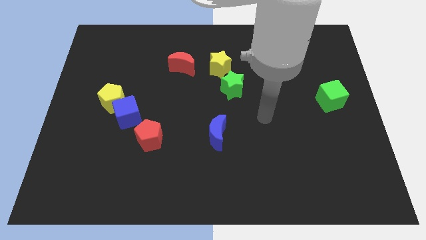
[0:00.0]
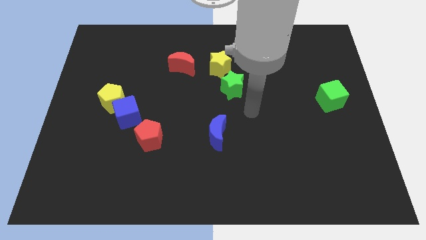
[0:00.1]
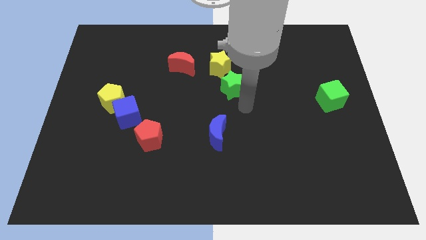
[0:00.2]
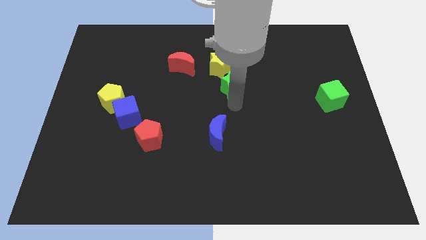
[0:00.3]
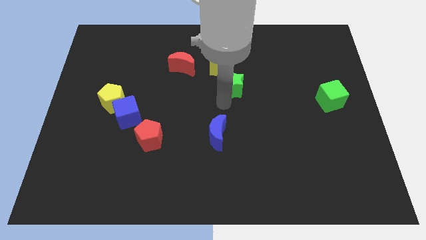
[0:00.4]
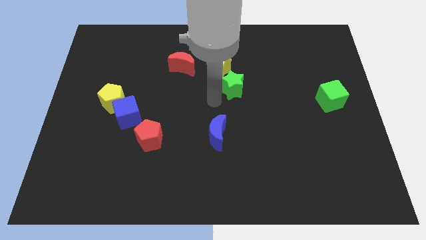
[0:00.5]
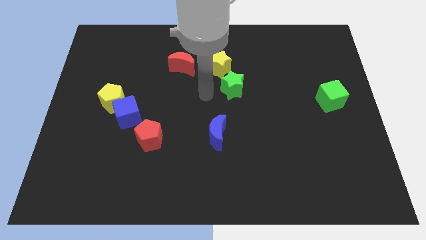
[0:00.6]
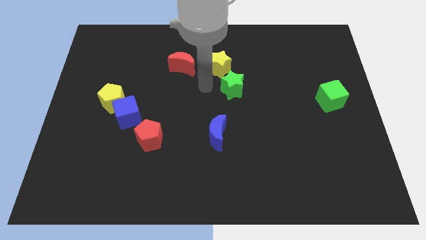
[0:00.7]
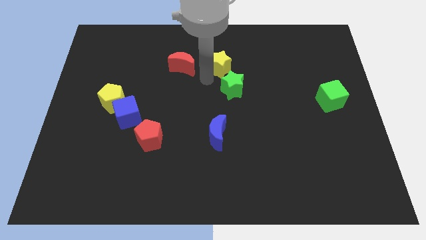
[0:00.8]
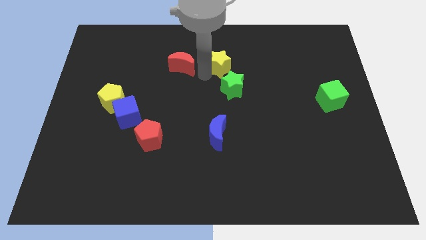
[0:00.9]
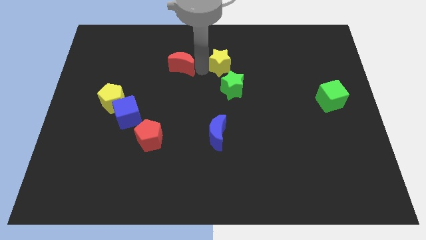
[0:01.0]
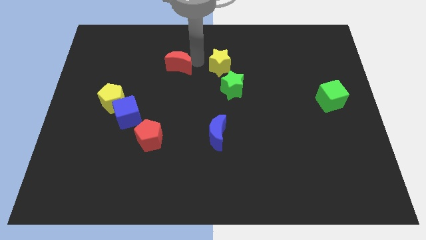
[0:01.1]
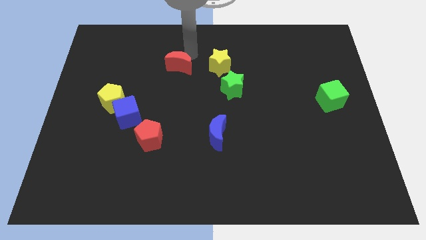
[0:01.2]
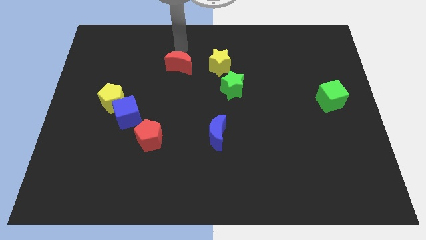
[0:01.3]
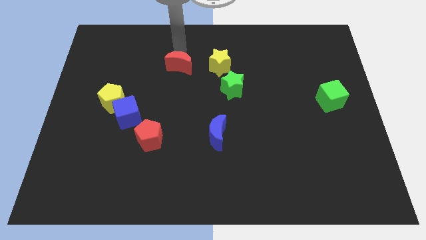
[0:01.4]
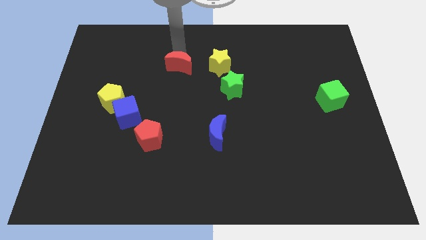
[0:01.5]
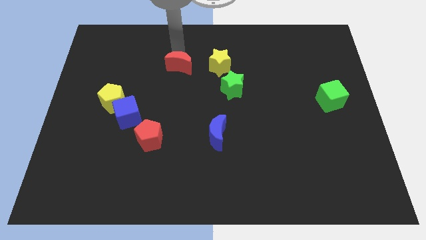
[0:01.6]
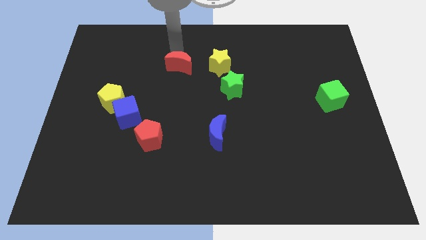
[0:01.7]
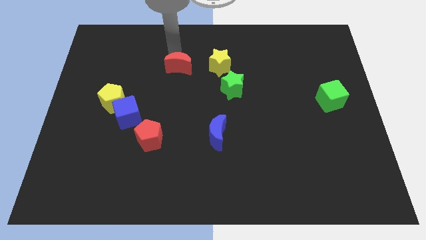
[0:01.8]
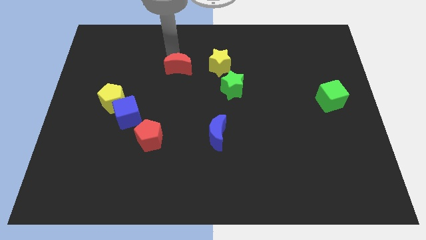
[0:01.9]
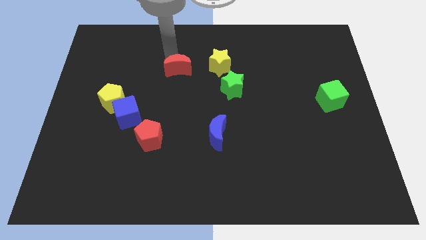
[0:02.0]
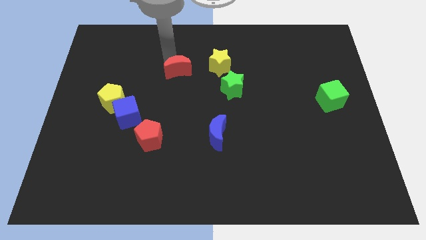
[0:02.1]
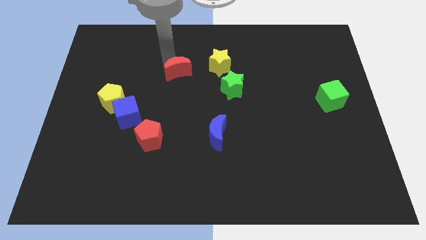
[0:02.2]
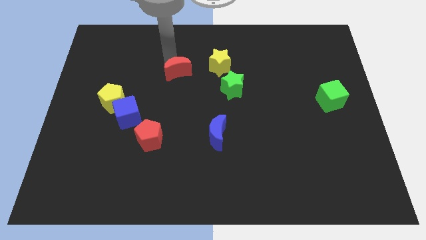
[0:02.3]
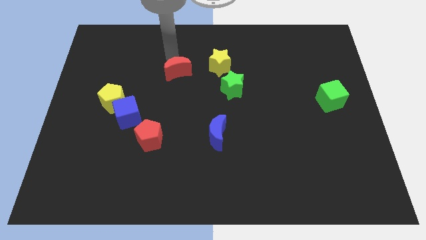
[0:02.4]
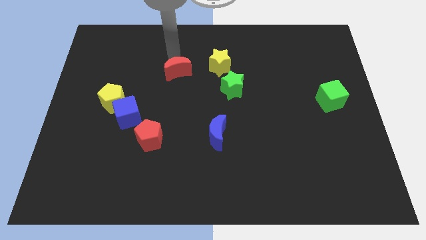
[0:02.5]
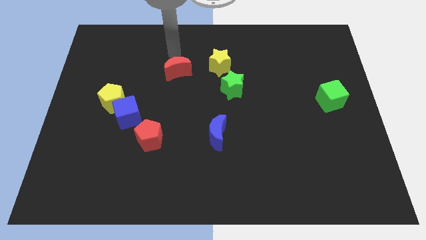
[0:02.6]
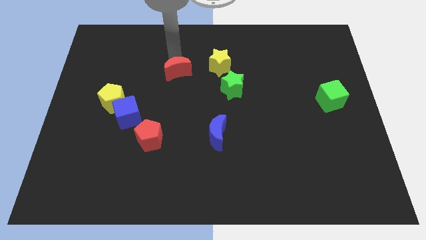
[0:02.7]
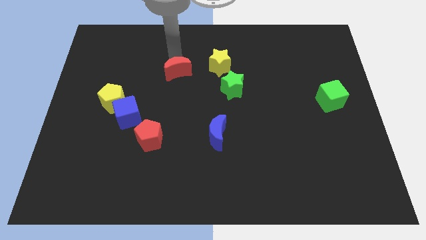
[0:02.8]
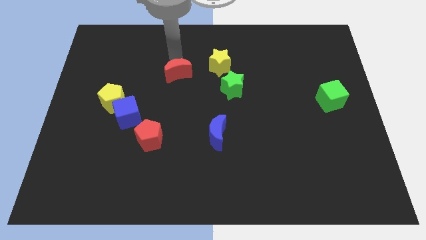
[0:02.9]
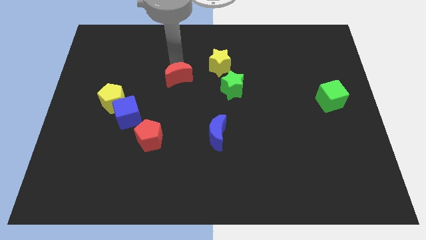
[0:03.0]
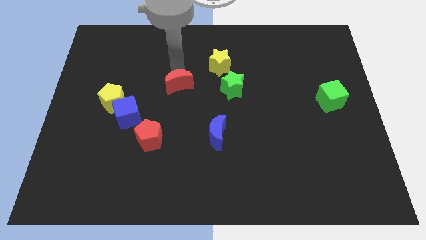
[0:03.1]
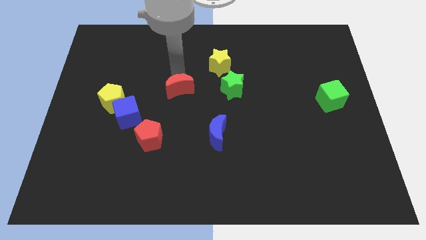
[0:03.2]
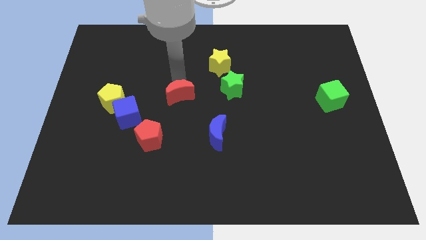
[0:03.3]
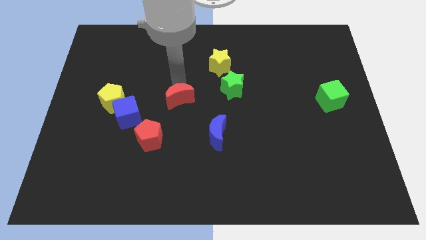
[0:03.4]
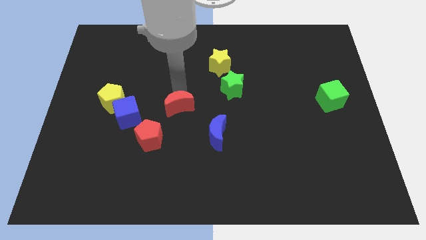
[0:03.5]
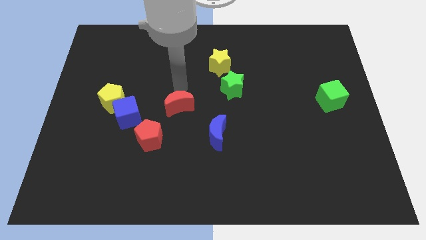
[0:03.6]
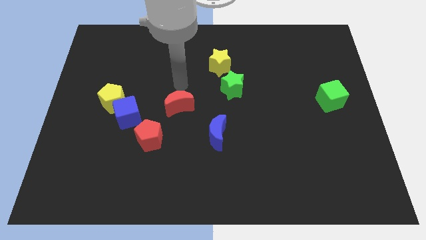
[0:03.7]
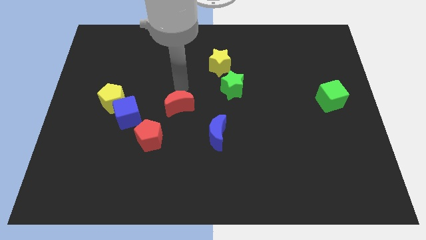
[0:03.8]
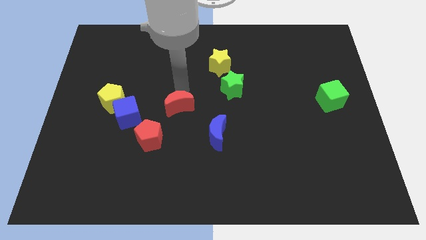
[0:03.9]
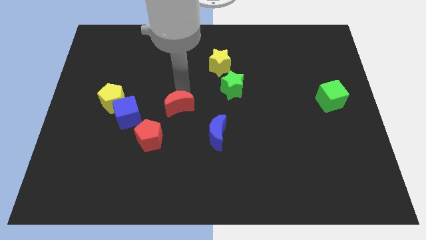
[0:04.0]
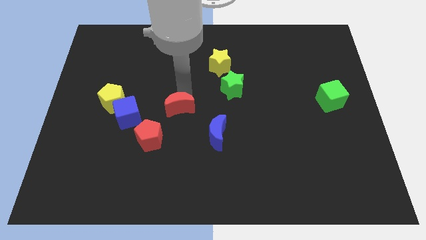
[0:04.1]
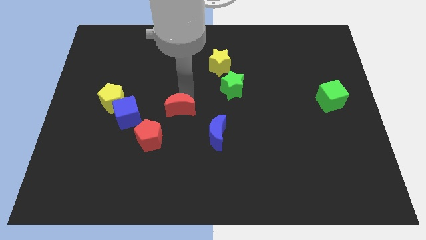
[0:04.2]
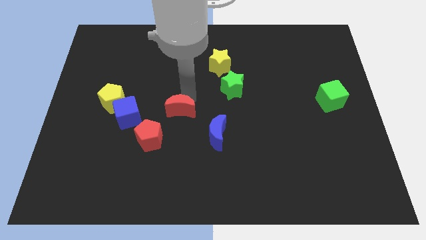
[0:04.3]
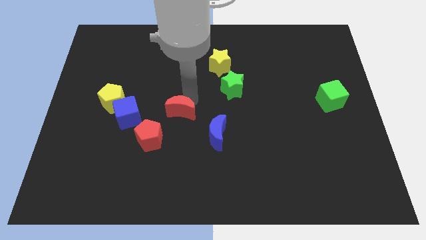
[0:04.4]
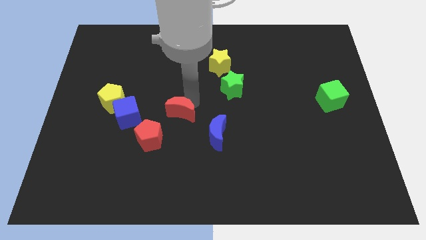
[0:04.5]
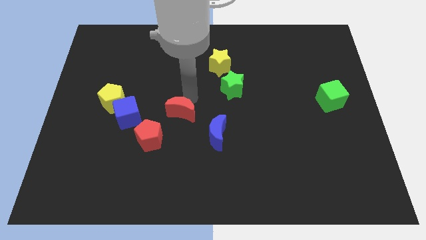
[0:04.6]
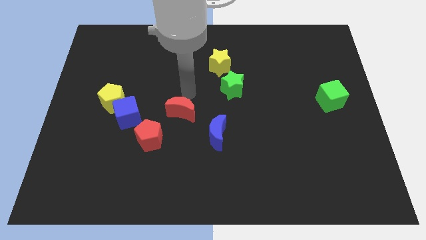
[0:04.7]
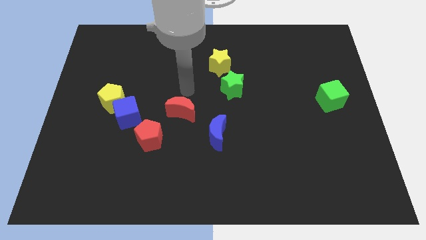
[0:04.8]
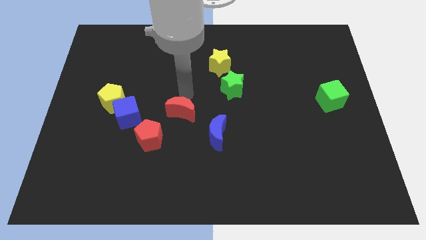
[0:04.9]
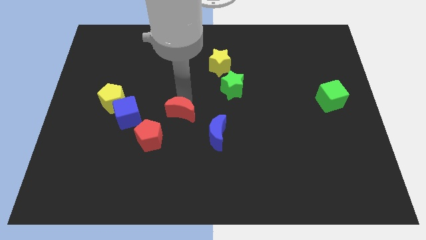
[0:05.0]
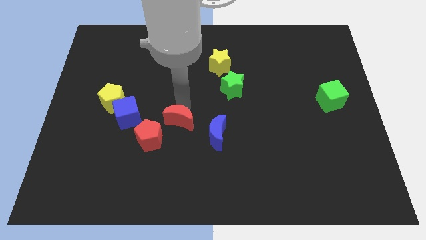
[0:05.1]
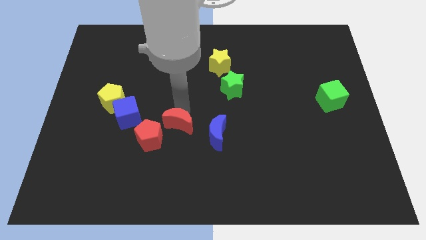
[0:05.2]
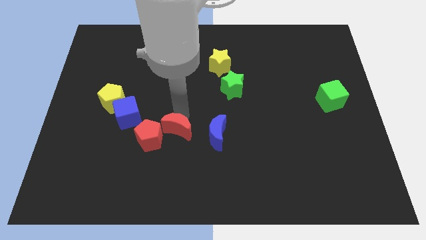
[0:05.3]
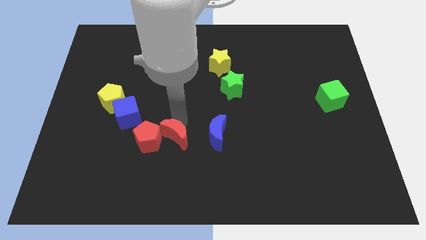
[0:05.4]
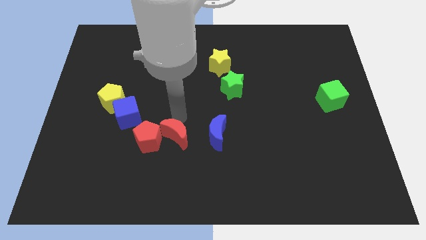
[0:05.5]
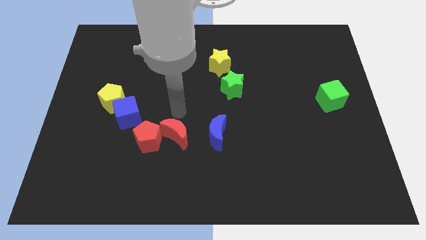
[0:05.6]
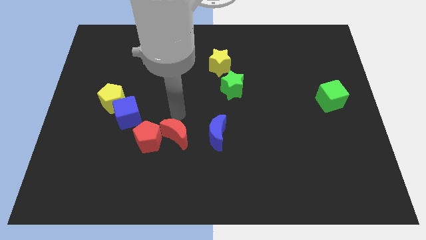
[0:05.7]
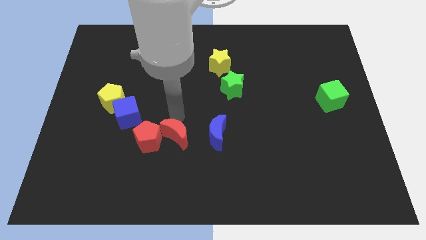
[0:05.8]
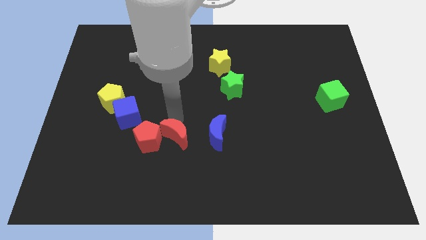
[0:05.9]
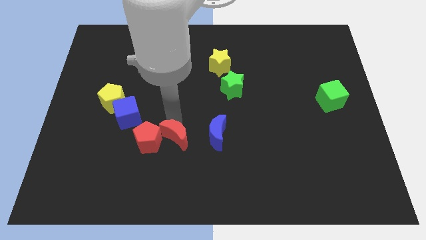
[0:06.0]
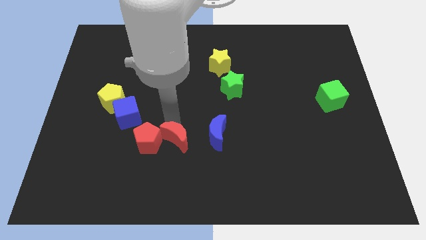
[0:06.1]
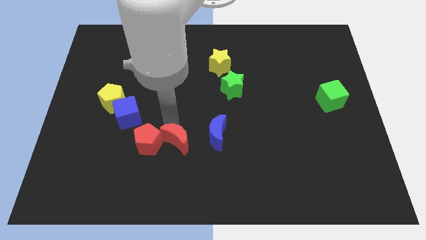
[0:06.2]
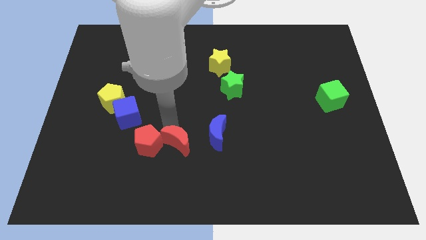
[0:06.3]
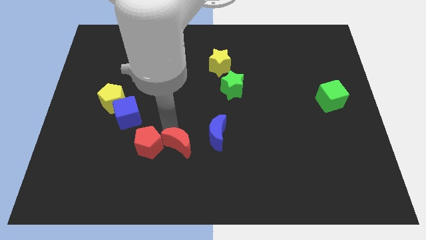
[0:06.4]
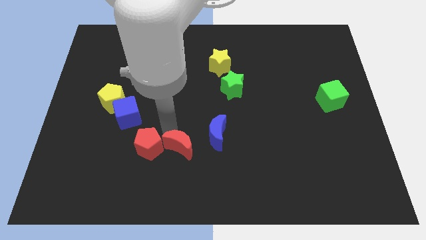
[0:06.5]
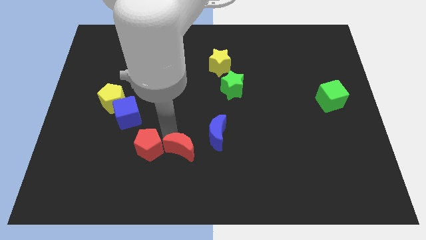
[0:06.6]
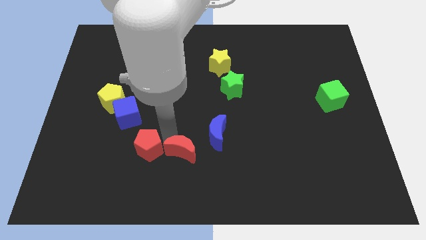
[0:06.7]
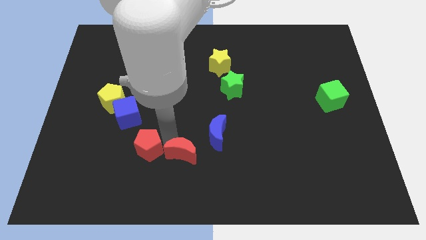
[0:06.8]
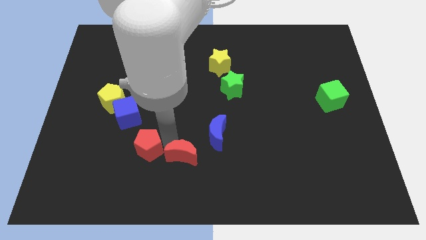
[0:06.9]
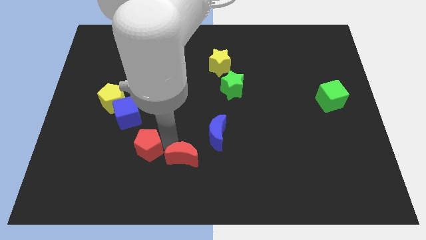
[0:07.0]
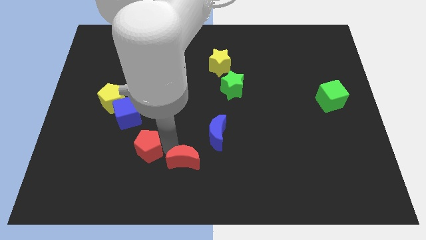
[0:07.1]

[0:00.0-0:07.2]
move the red moon to the bottom side
